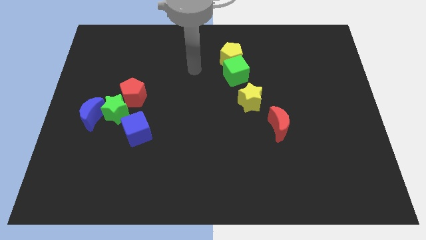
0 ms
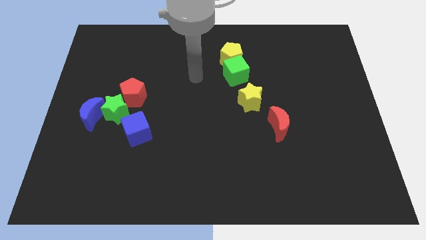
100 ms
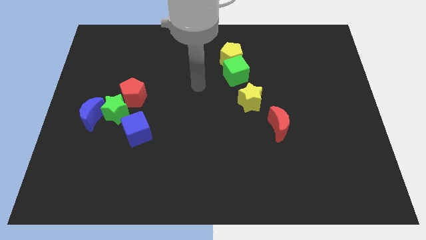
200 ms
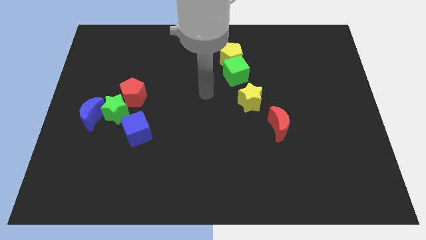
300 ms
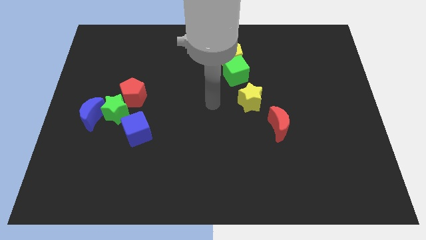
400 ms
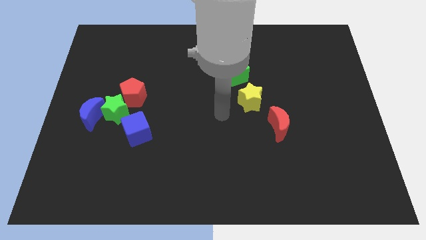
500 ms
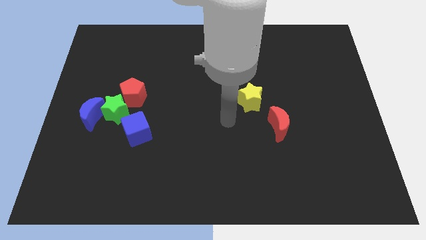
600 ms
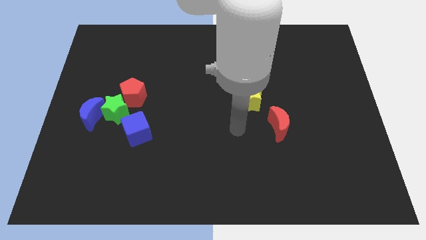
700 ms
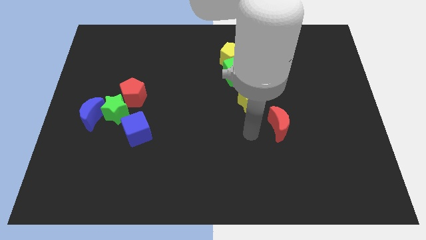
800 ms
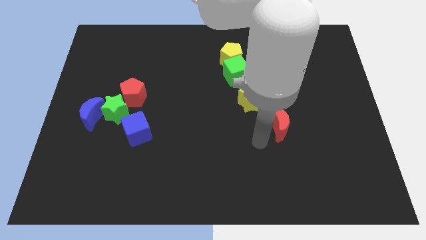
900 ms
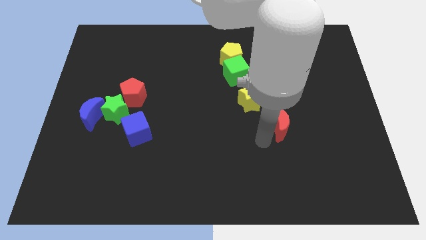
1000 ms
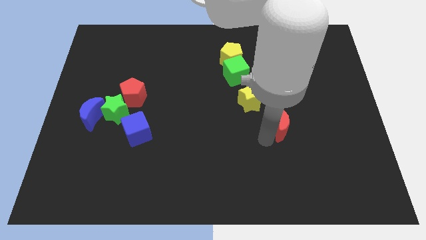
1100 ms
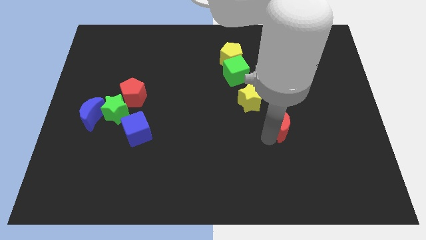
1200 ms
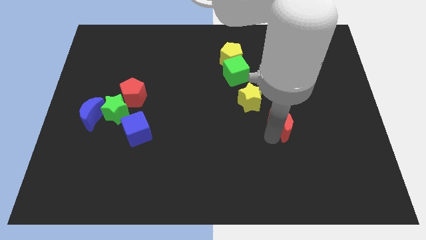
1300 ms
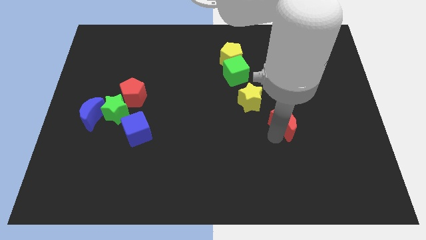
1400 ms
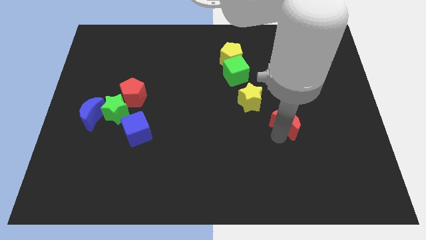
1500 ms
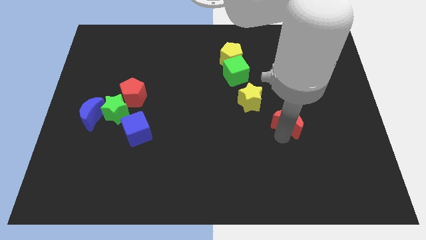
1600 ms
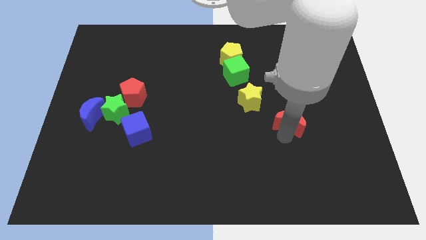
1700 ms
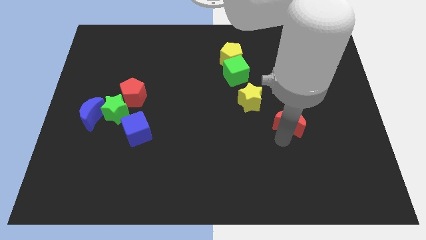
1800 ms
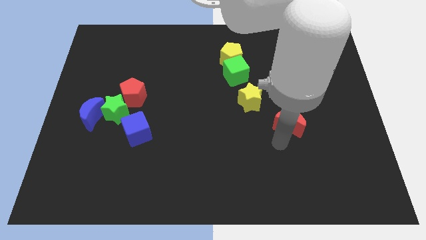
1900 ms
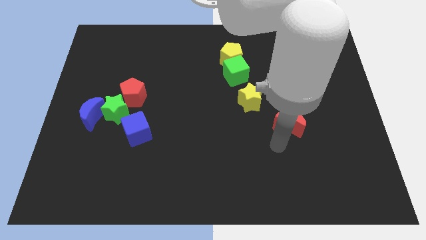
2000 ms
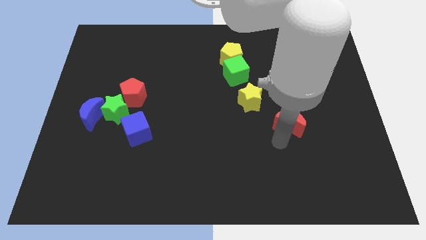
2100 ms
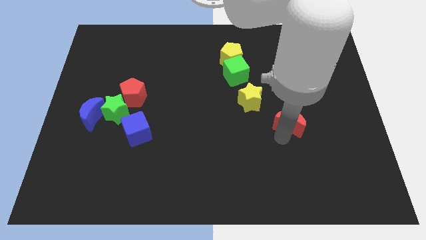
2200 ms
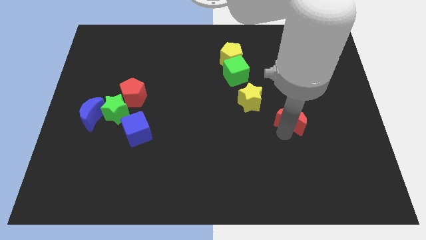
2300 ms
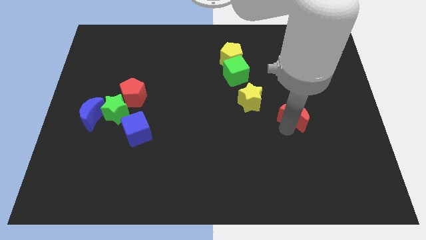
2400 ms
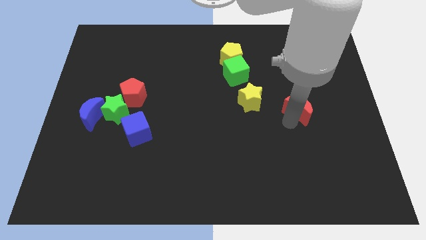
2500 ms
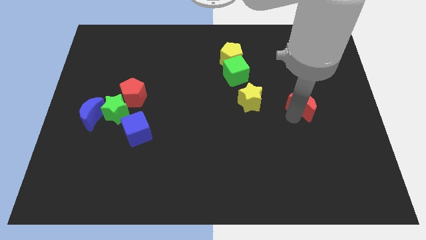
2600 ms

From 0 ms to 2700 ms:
slide the red moon slightly upwards and then right

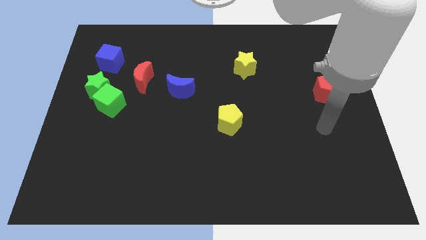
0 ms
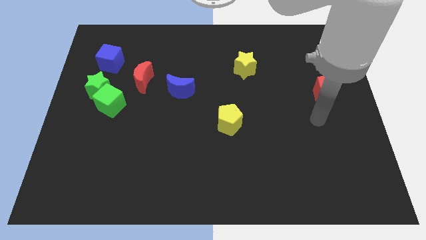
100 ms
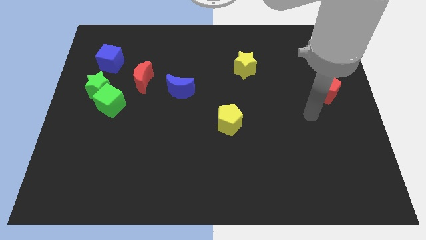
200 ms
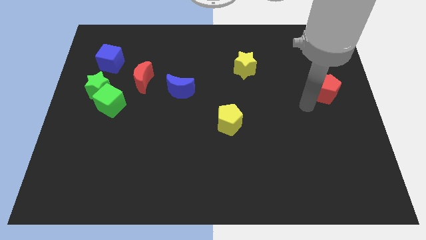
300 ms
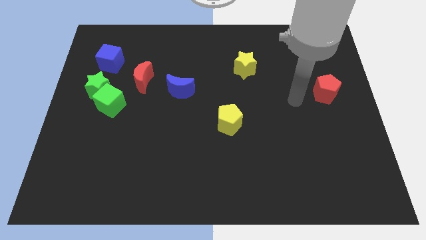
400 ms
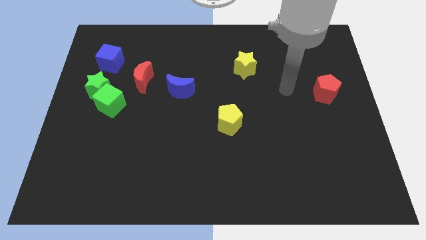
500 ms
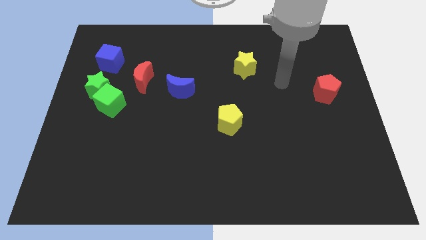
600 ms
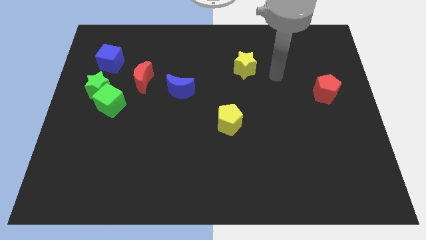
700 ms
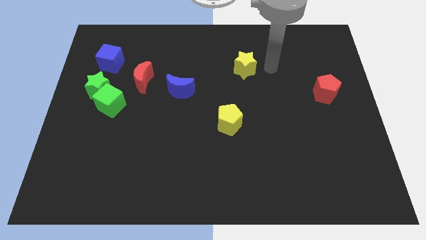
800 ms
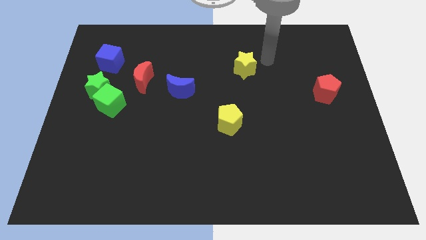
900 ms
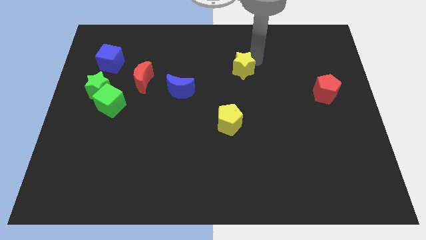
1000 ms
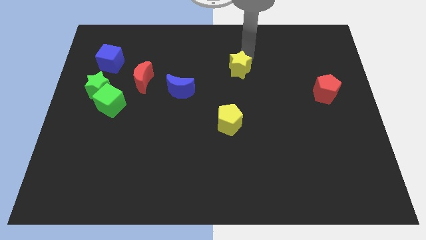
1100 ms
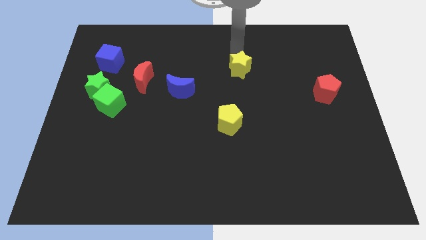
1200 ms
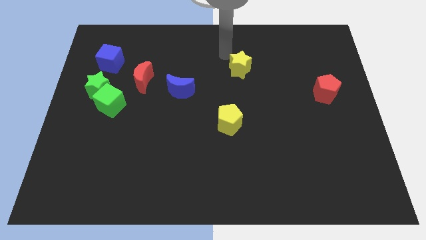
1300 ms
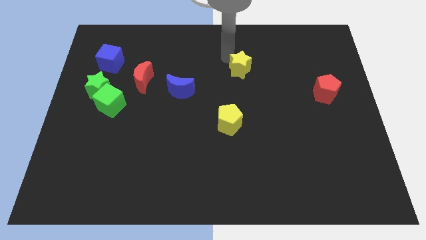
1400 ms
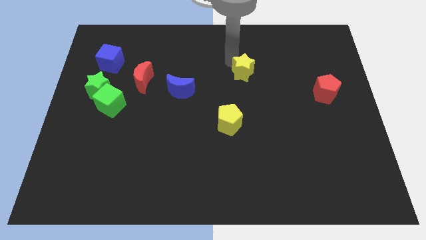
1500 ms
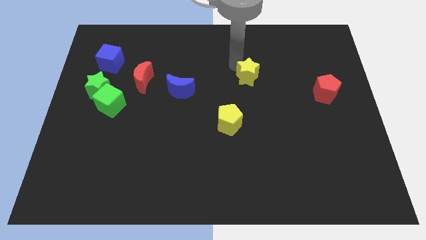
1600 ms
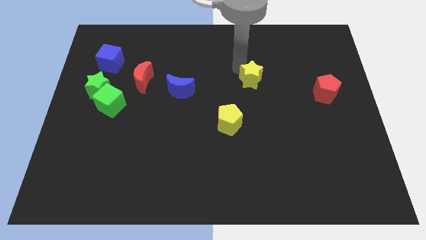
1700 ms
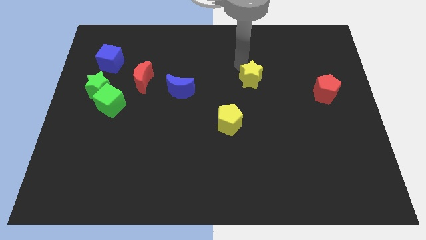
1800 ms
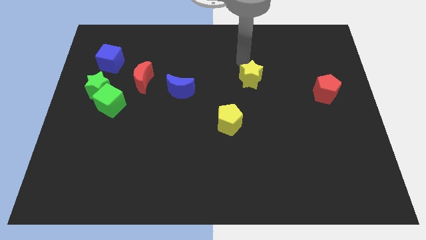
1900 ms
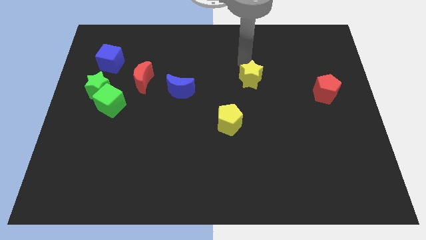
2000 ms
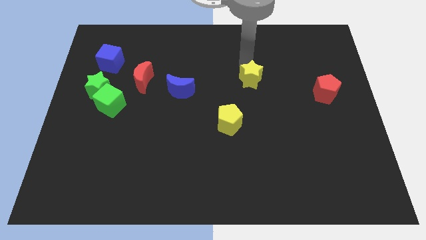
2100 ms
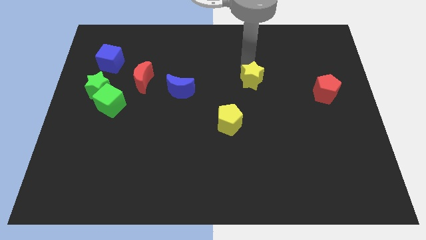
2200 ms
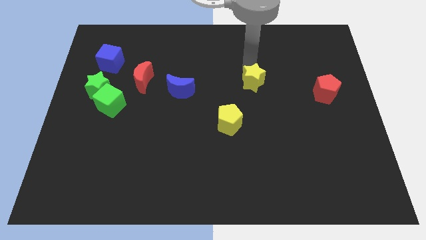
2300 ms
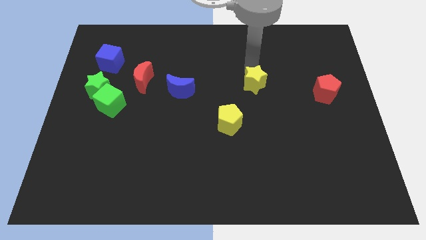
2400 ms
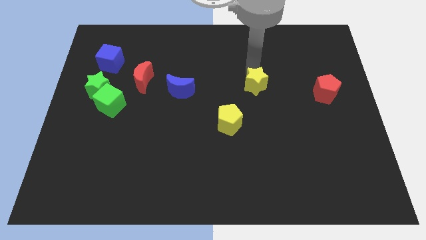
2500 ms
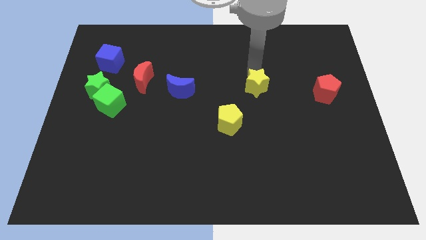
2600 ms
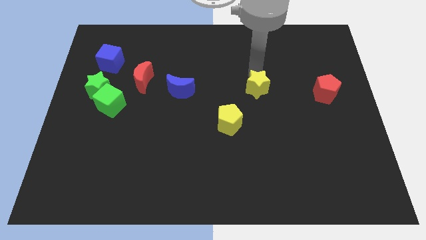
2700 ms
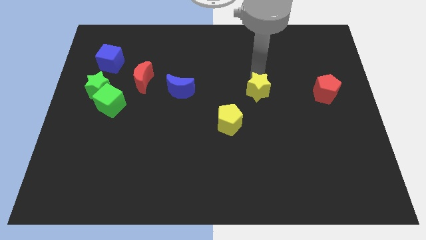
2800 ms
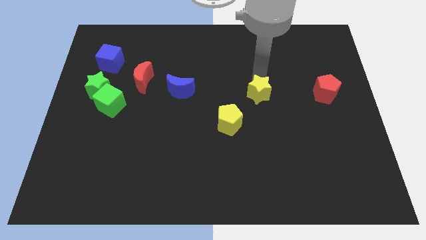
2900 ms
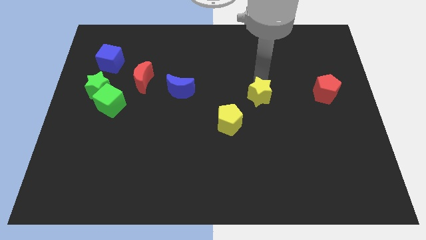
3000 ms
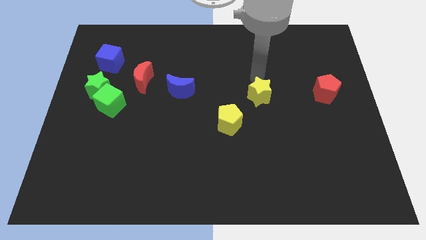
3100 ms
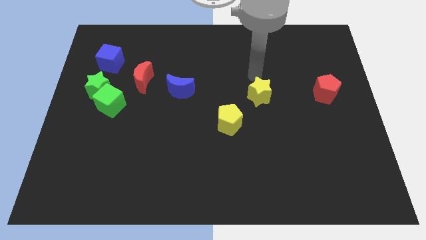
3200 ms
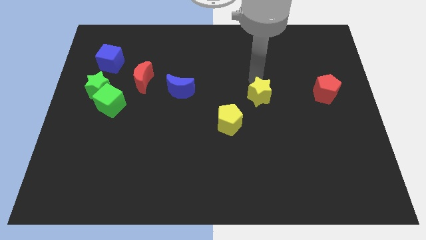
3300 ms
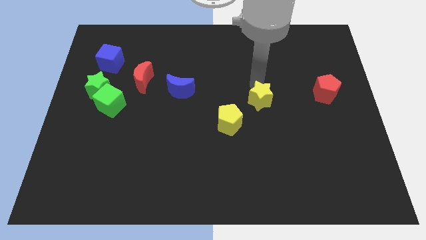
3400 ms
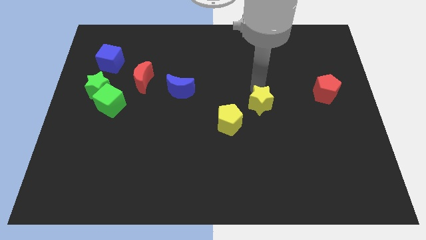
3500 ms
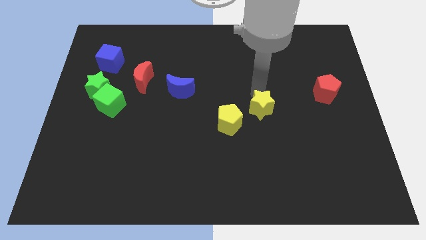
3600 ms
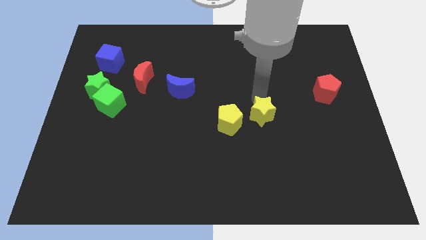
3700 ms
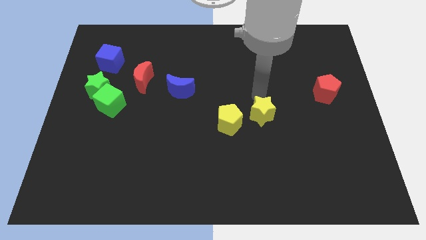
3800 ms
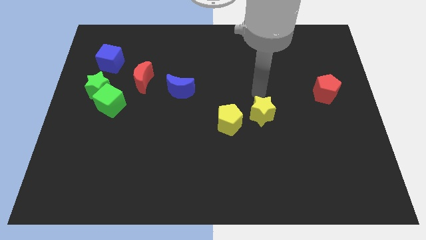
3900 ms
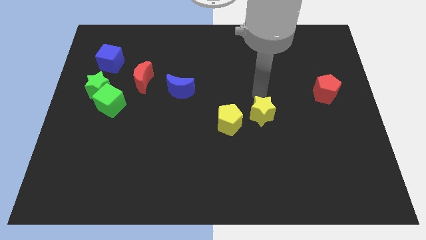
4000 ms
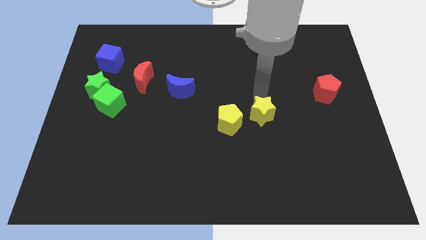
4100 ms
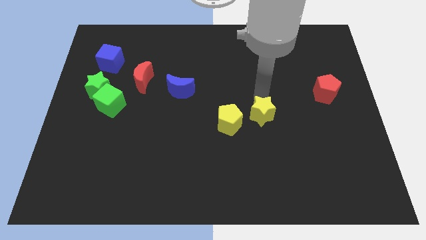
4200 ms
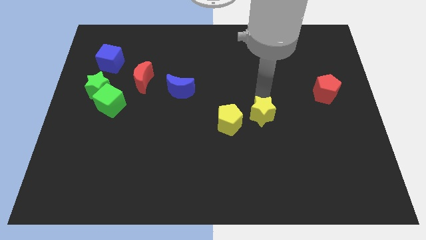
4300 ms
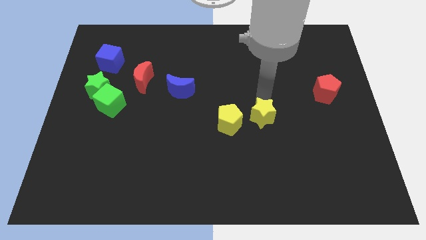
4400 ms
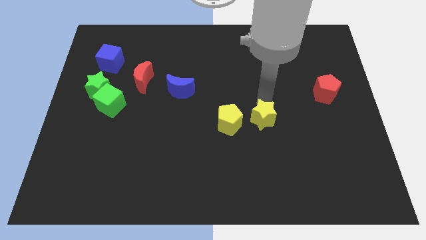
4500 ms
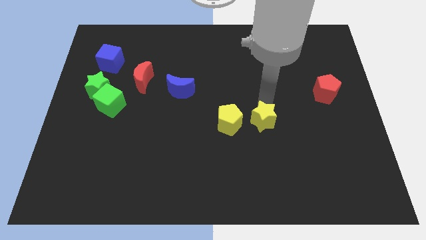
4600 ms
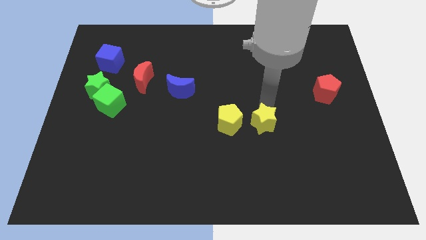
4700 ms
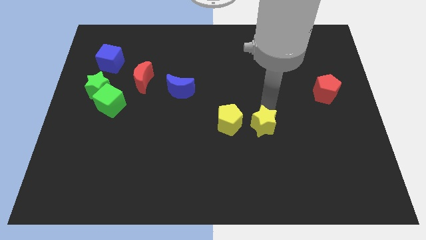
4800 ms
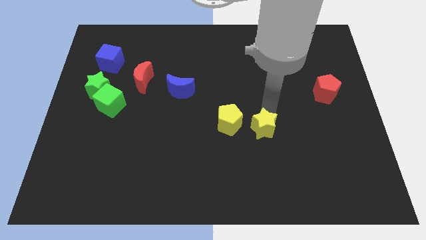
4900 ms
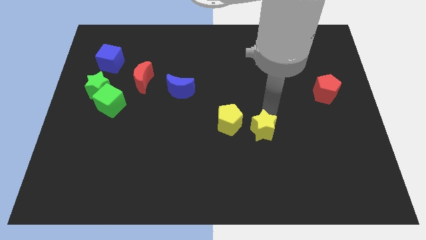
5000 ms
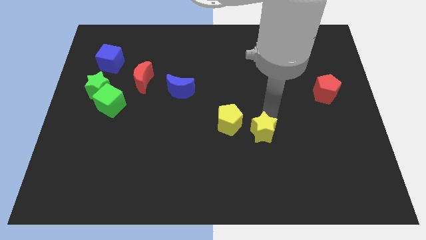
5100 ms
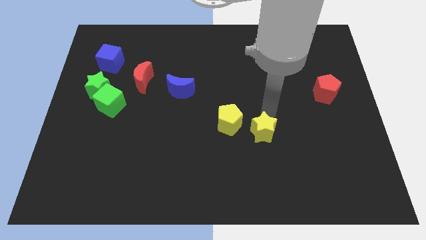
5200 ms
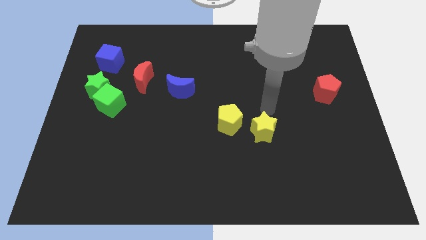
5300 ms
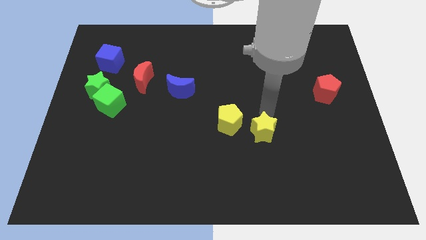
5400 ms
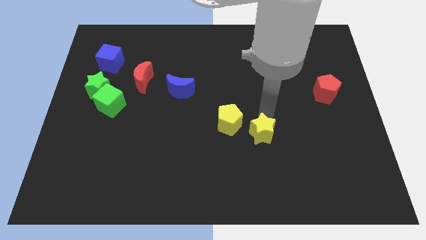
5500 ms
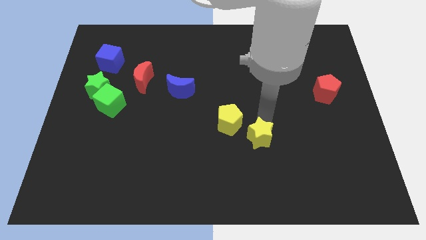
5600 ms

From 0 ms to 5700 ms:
push the yellow star down

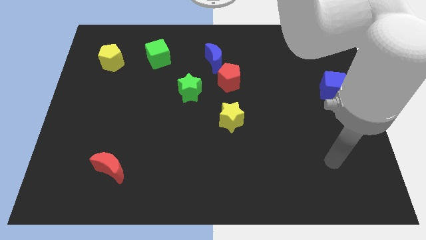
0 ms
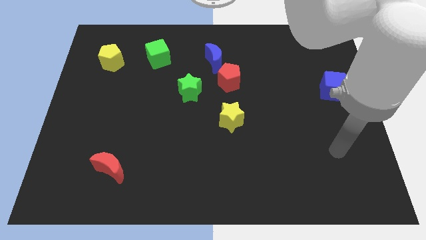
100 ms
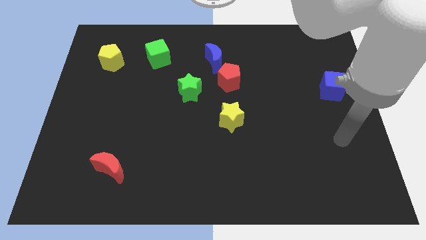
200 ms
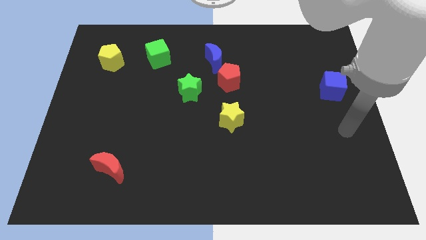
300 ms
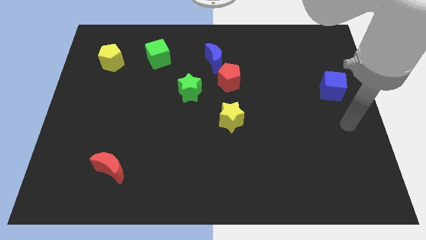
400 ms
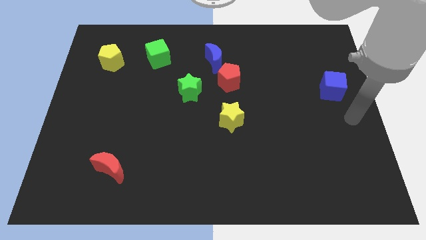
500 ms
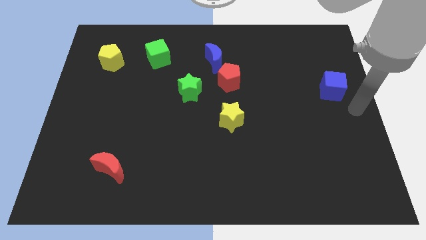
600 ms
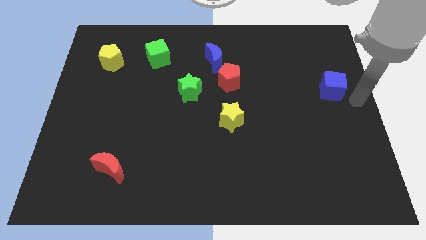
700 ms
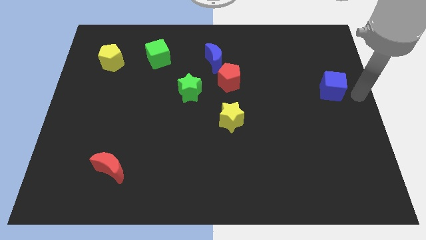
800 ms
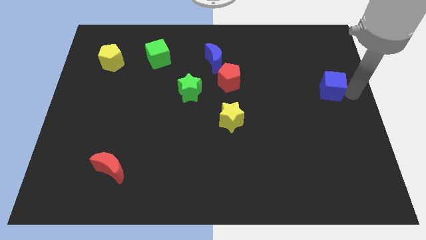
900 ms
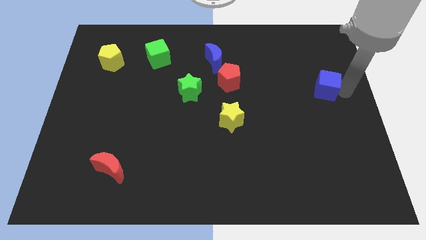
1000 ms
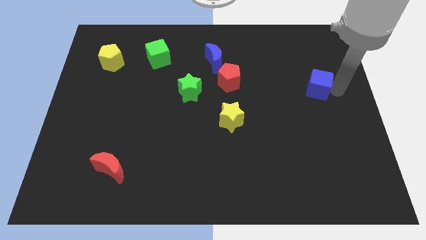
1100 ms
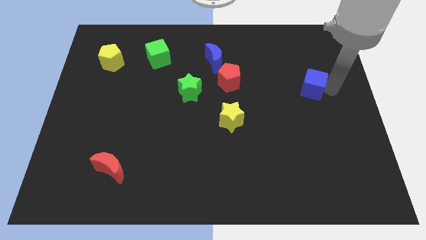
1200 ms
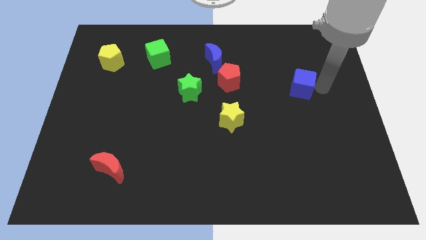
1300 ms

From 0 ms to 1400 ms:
push the blue cube somewhat left
